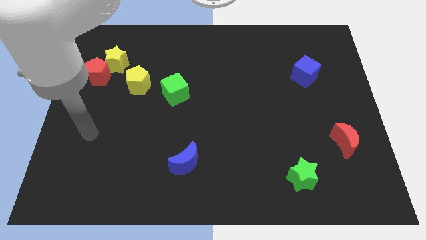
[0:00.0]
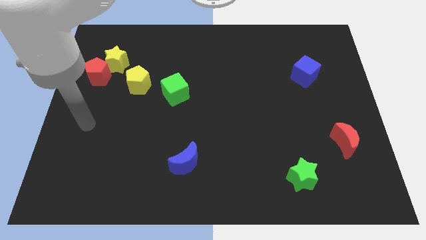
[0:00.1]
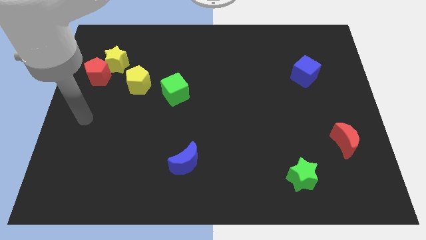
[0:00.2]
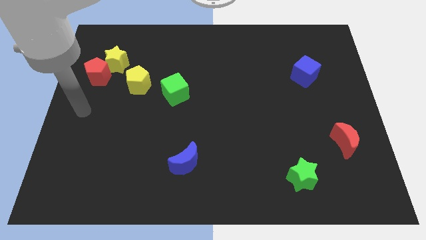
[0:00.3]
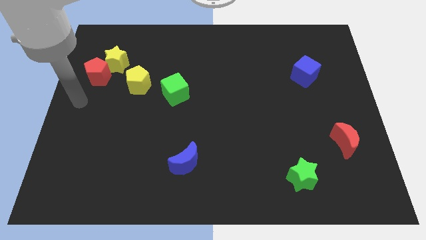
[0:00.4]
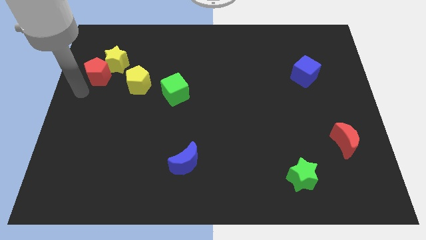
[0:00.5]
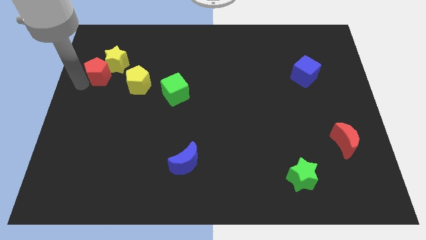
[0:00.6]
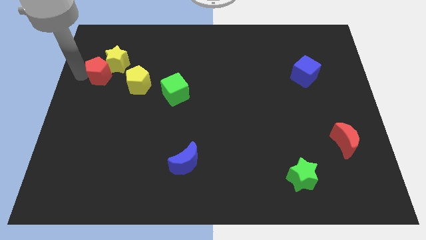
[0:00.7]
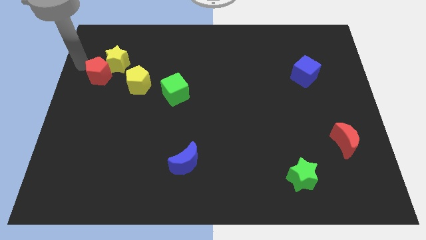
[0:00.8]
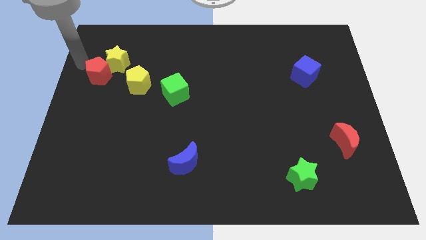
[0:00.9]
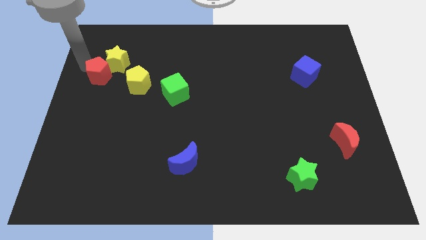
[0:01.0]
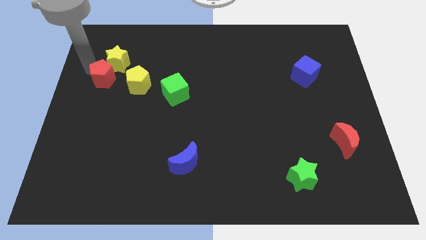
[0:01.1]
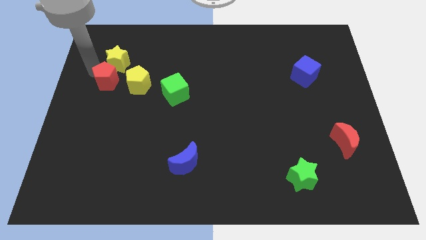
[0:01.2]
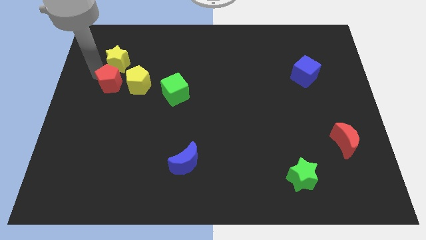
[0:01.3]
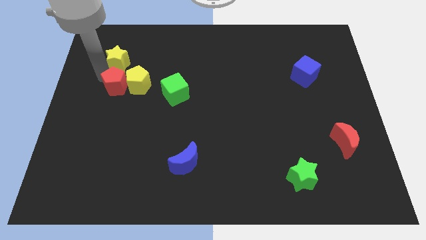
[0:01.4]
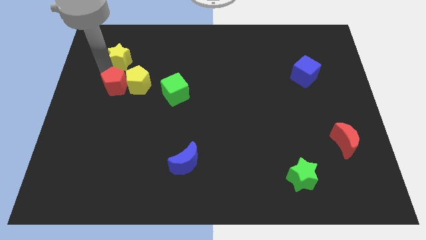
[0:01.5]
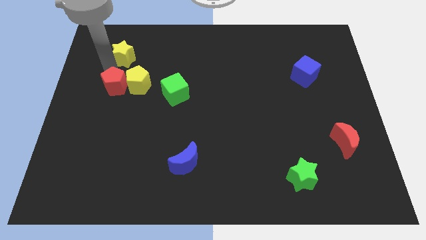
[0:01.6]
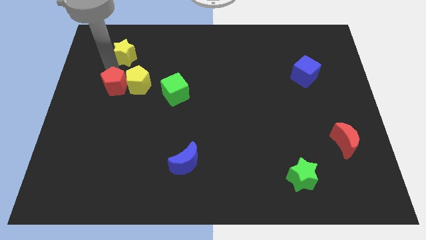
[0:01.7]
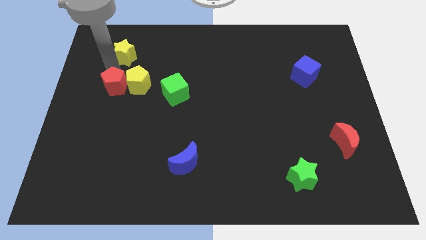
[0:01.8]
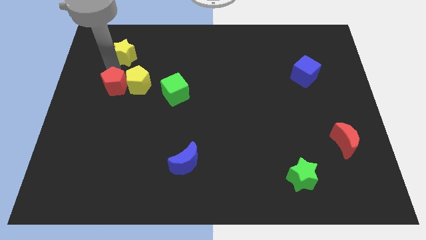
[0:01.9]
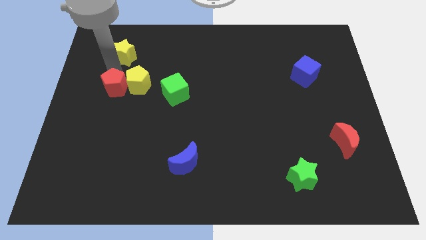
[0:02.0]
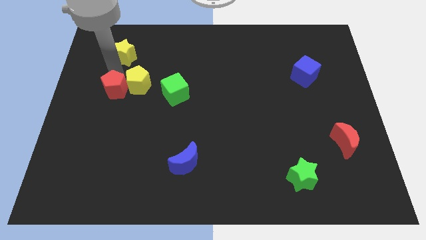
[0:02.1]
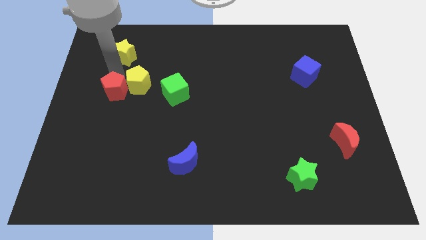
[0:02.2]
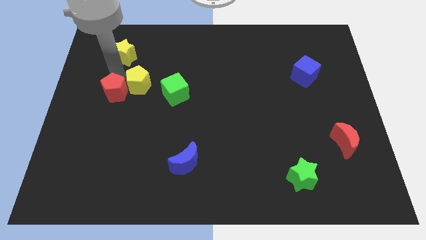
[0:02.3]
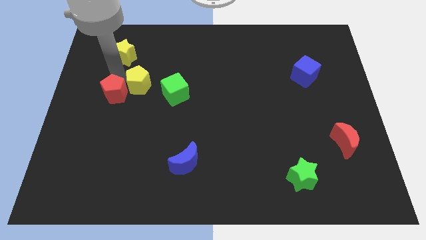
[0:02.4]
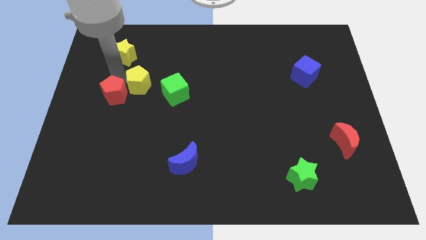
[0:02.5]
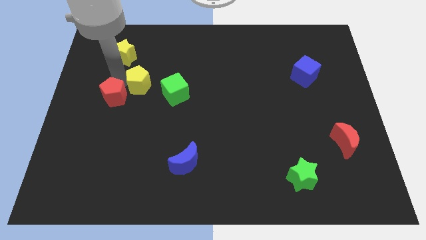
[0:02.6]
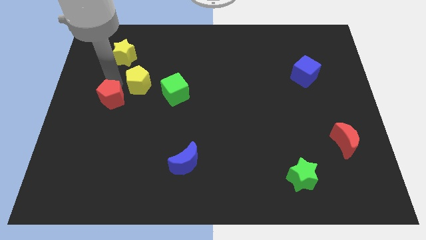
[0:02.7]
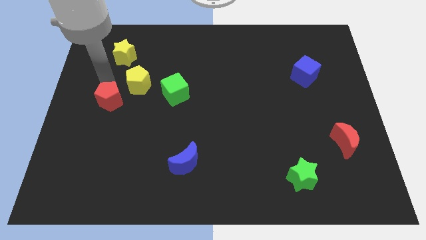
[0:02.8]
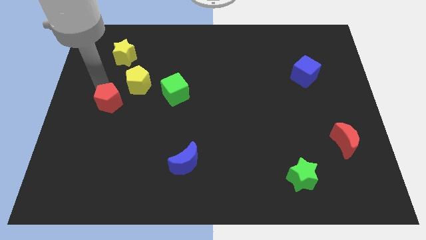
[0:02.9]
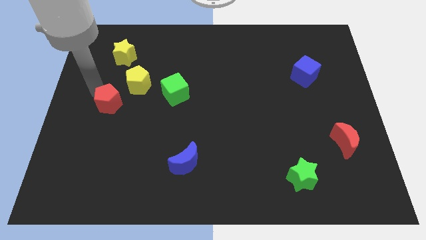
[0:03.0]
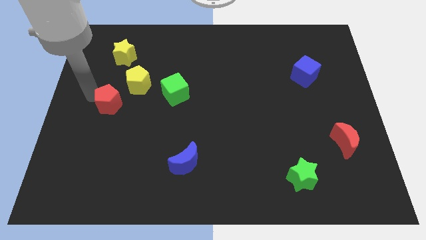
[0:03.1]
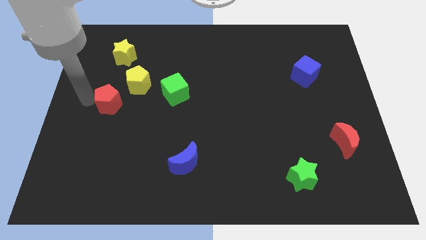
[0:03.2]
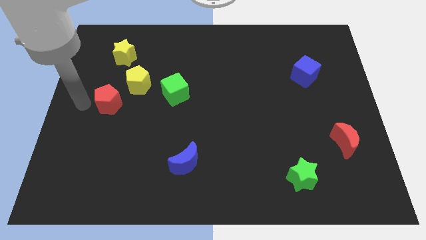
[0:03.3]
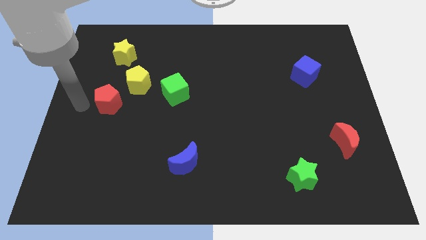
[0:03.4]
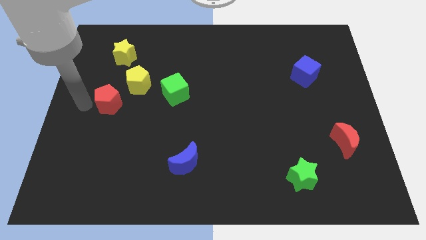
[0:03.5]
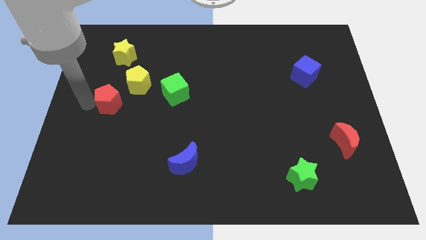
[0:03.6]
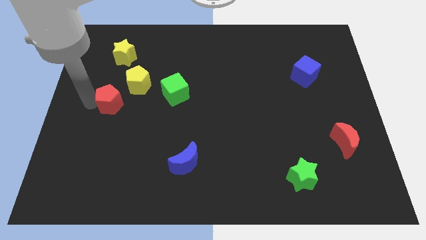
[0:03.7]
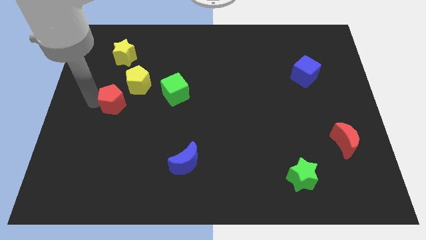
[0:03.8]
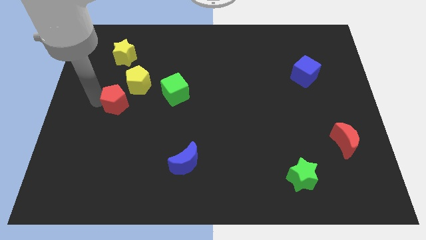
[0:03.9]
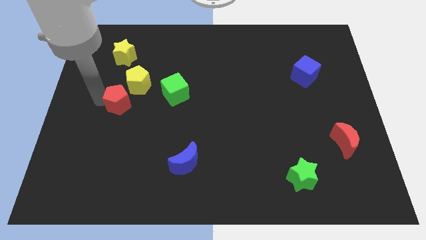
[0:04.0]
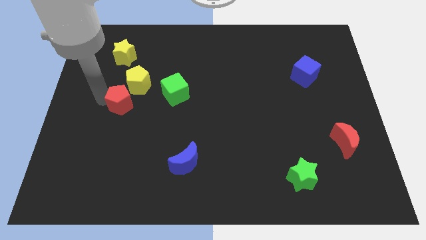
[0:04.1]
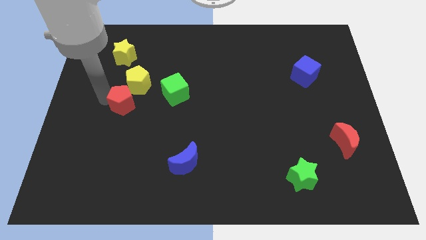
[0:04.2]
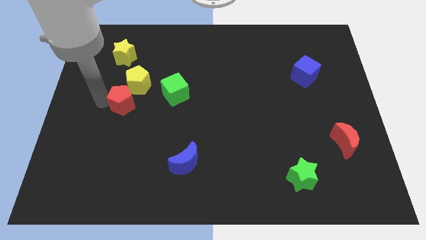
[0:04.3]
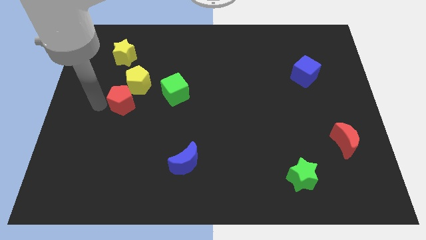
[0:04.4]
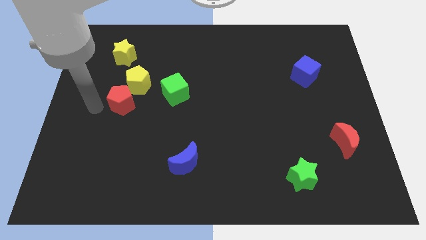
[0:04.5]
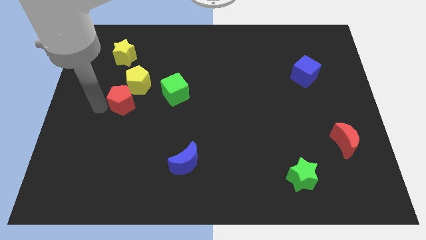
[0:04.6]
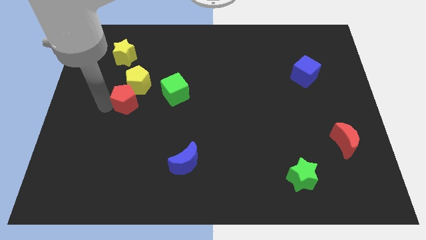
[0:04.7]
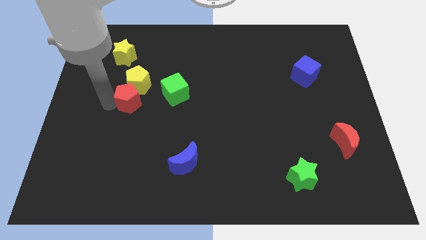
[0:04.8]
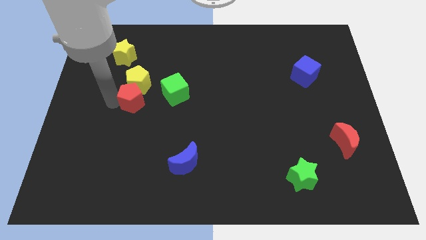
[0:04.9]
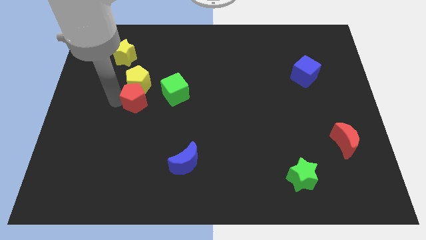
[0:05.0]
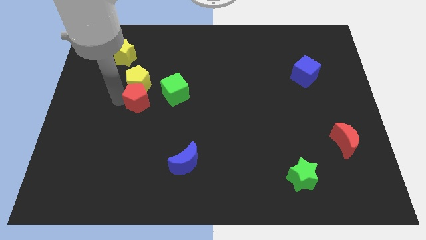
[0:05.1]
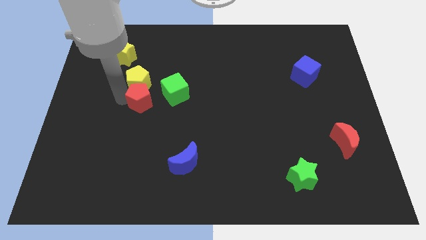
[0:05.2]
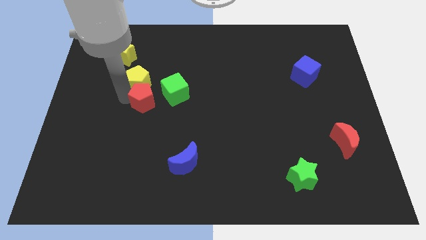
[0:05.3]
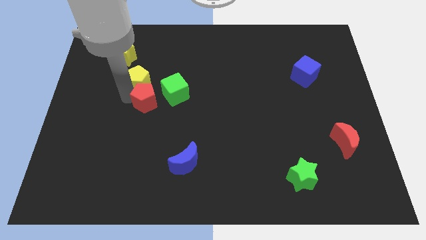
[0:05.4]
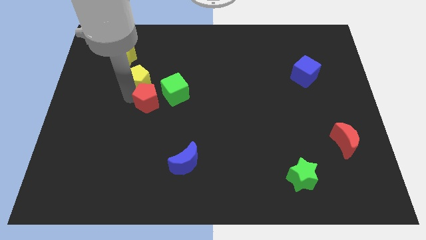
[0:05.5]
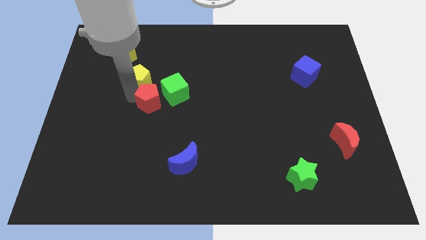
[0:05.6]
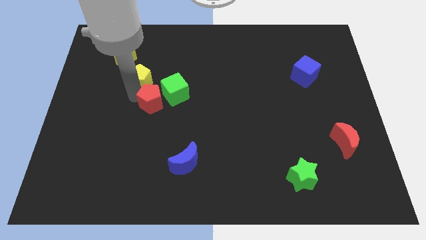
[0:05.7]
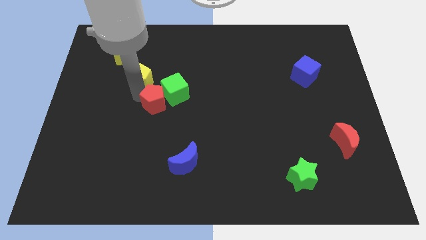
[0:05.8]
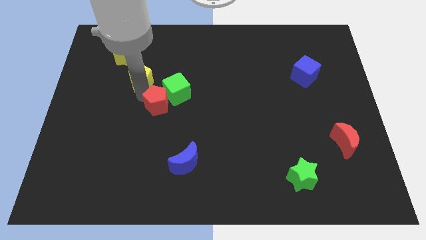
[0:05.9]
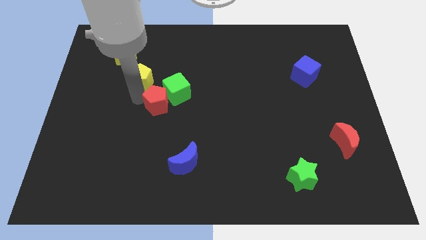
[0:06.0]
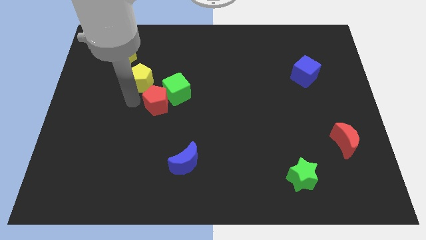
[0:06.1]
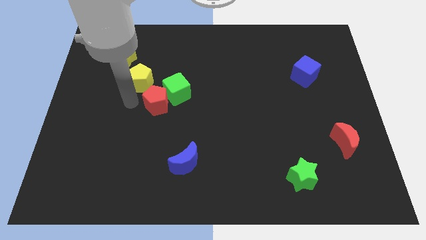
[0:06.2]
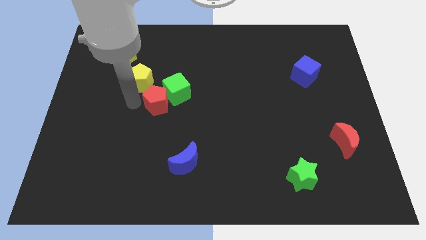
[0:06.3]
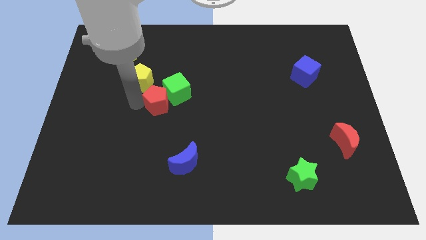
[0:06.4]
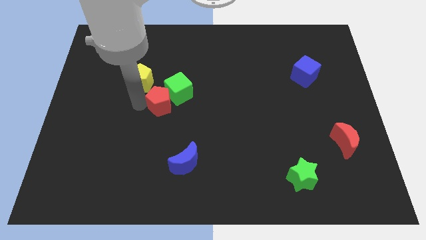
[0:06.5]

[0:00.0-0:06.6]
put the red pentagon to the middle of the board
